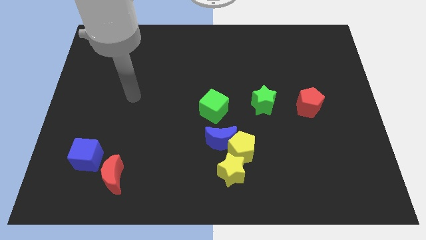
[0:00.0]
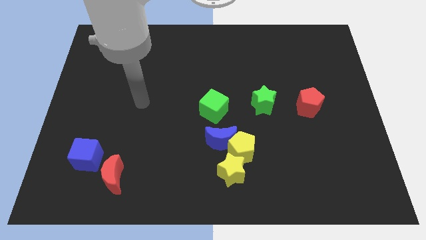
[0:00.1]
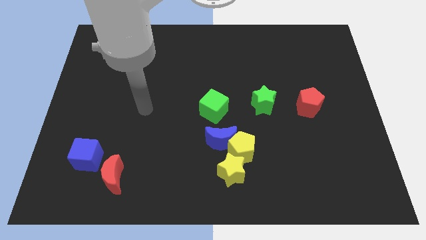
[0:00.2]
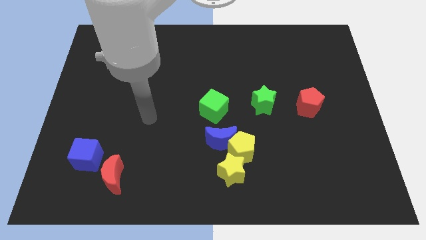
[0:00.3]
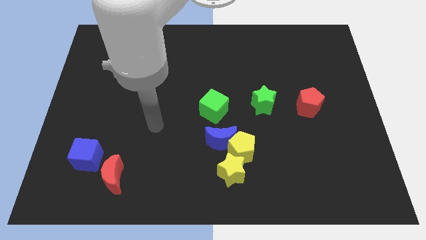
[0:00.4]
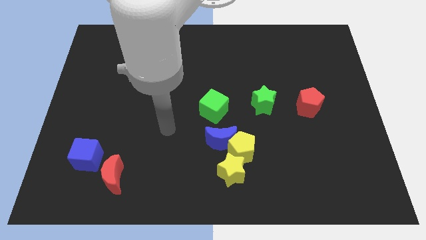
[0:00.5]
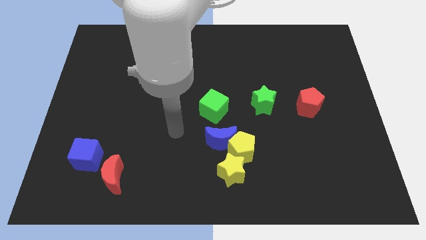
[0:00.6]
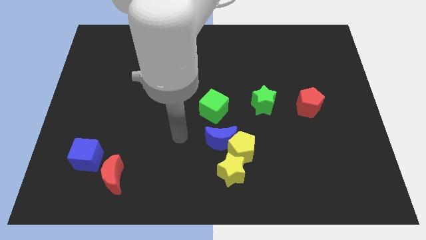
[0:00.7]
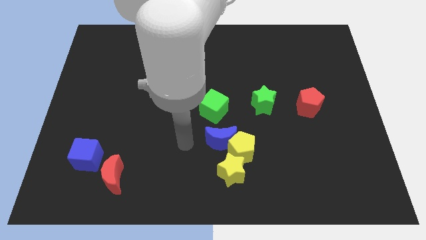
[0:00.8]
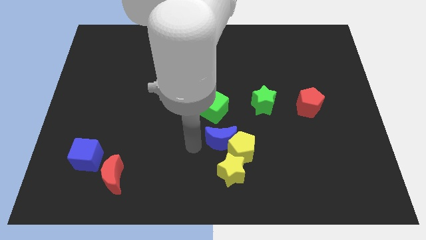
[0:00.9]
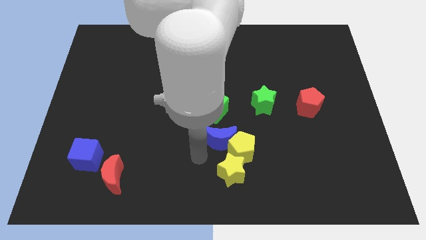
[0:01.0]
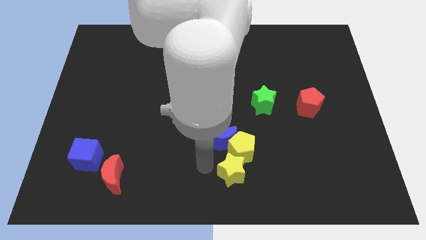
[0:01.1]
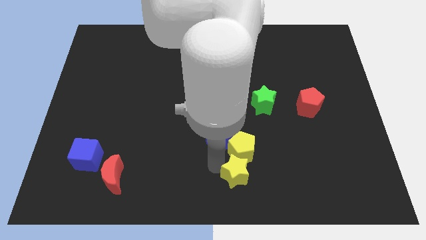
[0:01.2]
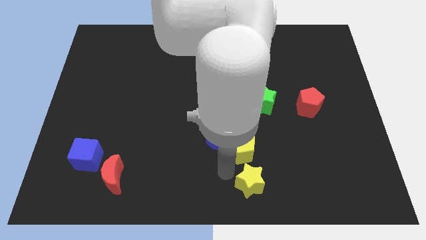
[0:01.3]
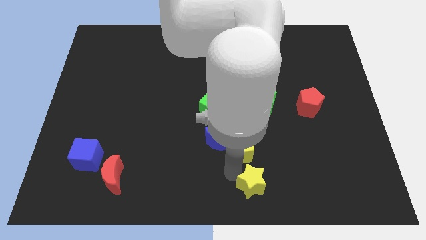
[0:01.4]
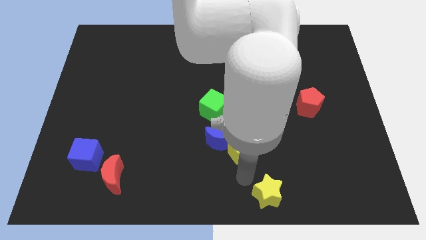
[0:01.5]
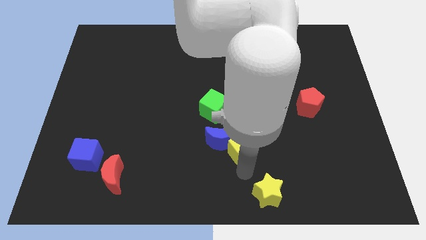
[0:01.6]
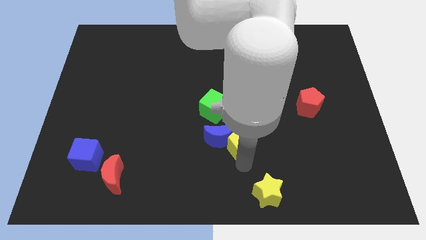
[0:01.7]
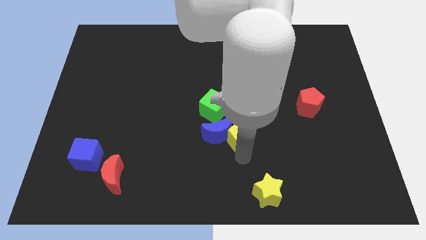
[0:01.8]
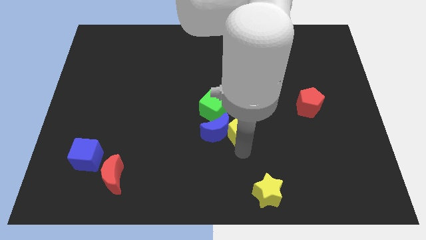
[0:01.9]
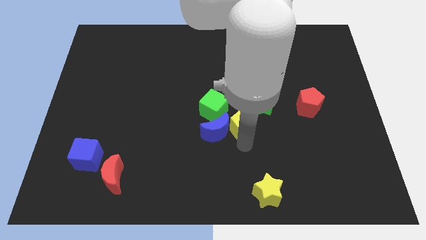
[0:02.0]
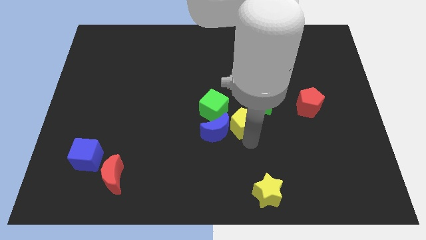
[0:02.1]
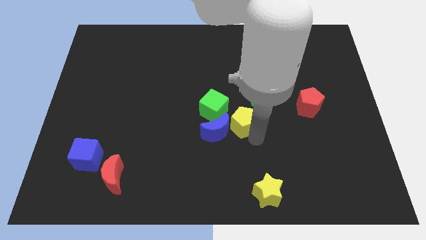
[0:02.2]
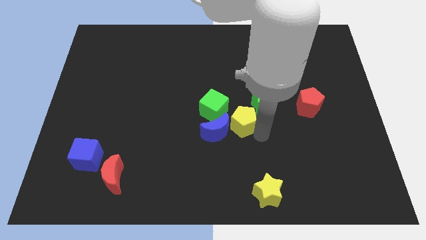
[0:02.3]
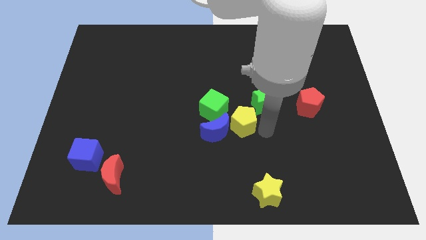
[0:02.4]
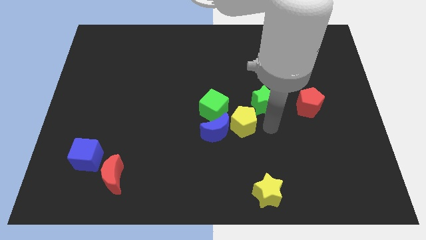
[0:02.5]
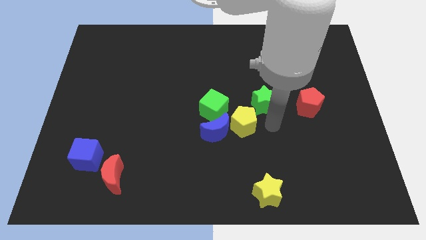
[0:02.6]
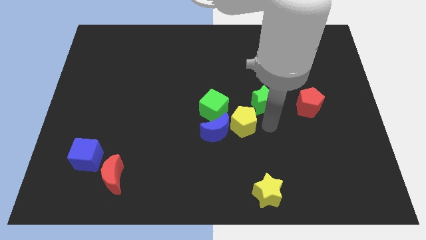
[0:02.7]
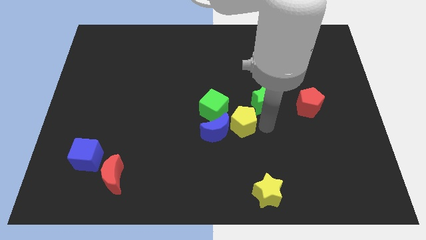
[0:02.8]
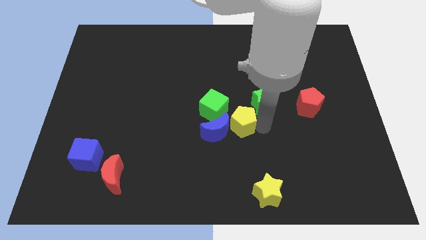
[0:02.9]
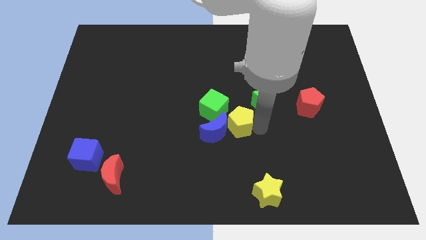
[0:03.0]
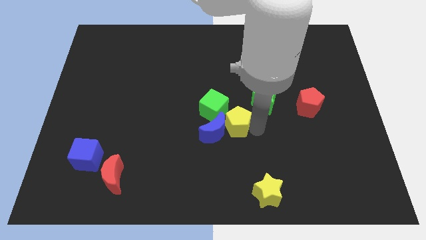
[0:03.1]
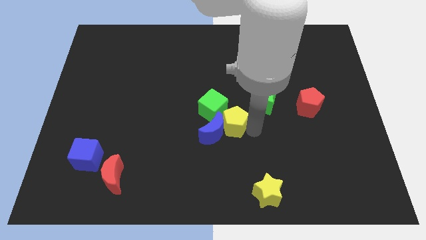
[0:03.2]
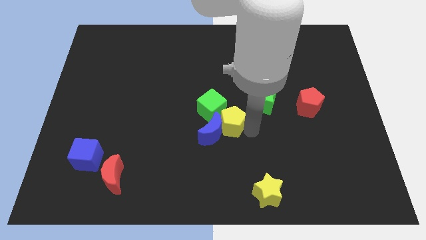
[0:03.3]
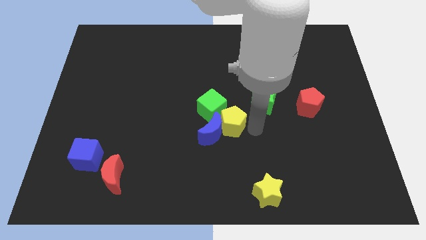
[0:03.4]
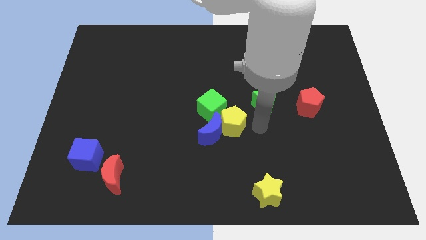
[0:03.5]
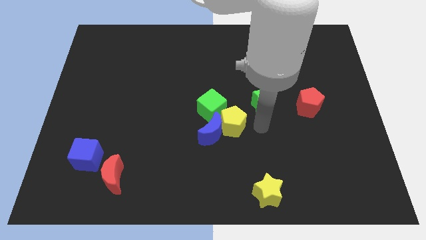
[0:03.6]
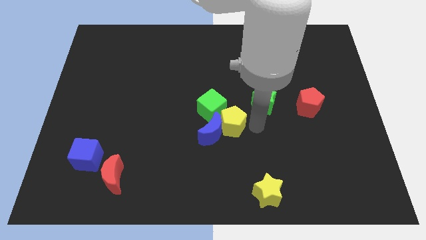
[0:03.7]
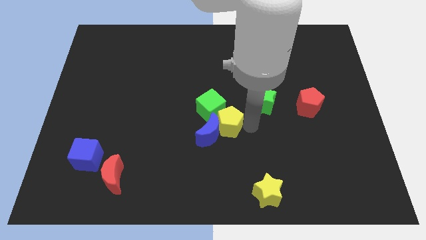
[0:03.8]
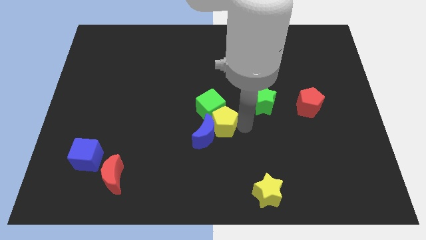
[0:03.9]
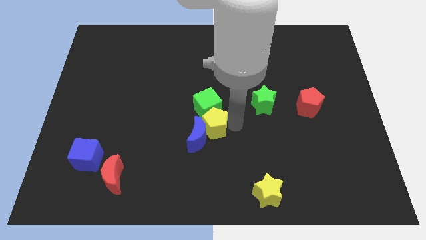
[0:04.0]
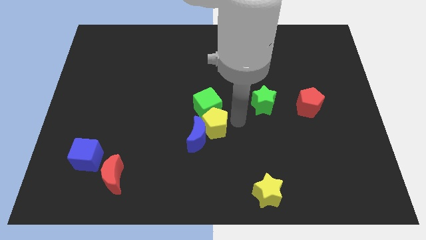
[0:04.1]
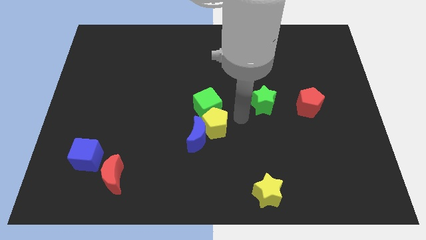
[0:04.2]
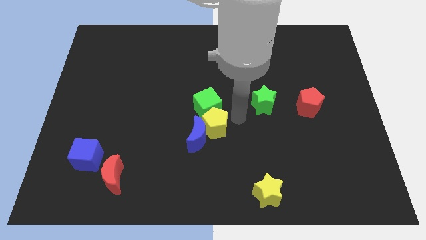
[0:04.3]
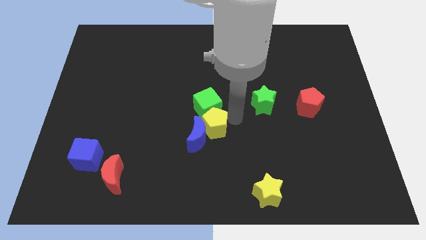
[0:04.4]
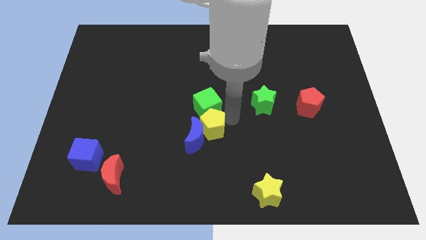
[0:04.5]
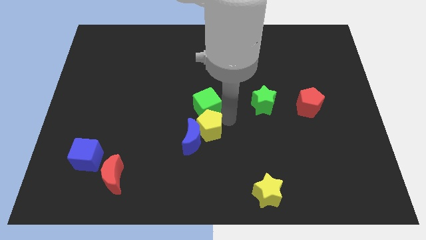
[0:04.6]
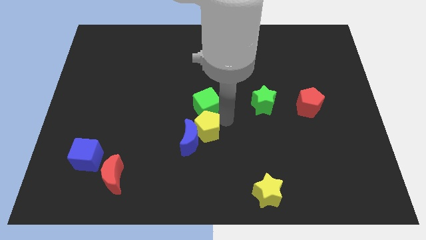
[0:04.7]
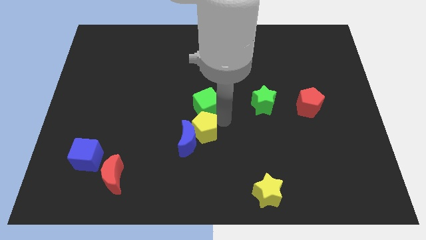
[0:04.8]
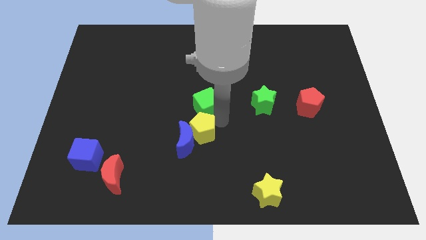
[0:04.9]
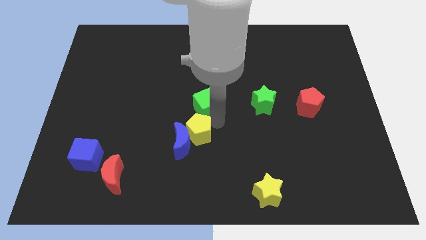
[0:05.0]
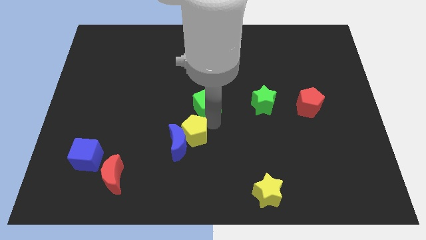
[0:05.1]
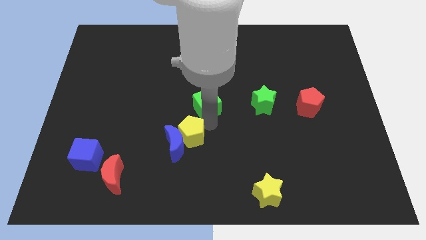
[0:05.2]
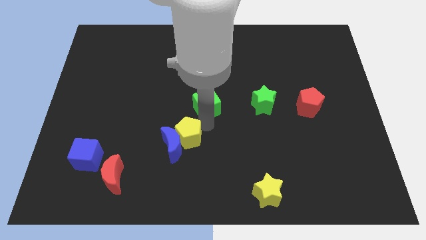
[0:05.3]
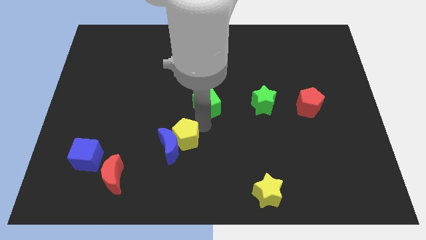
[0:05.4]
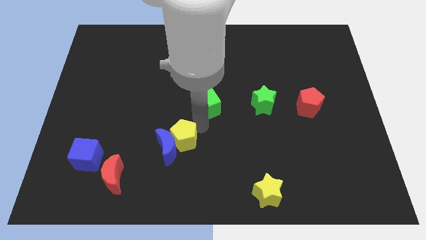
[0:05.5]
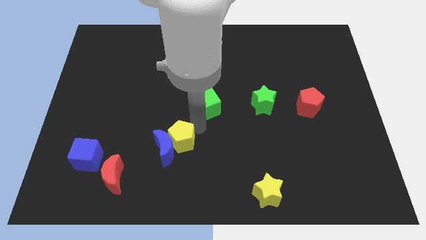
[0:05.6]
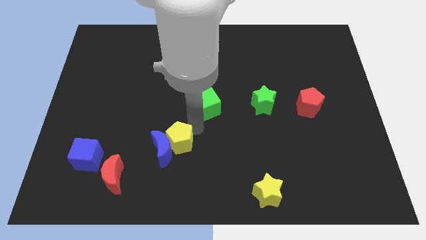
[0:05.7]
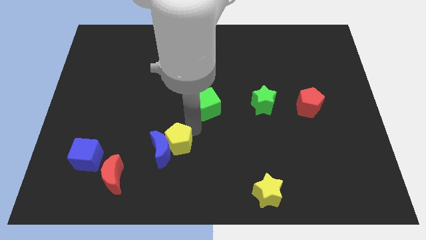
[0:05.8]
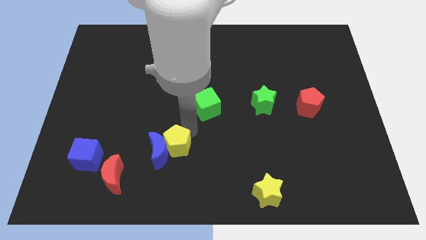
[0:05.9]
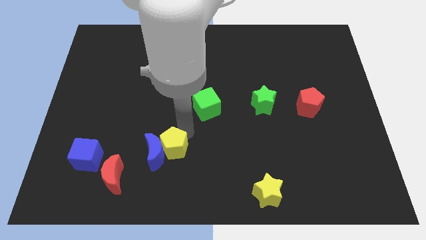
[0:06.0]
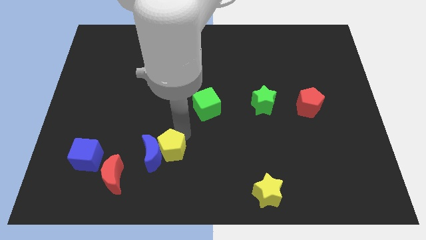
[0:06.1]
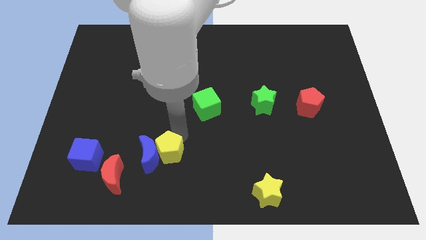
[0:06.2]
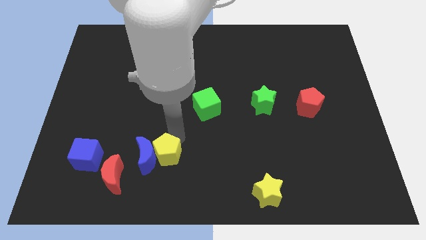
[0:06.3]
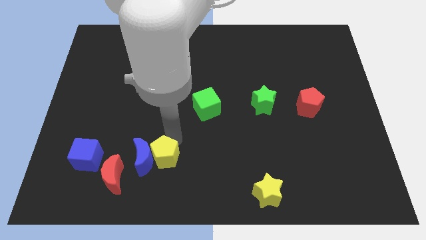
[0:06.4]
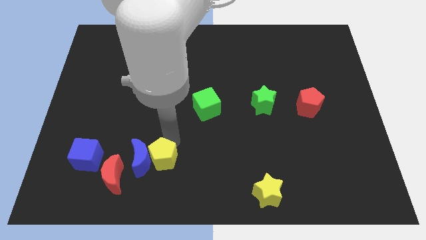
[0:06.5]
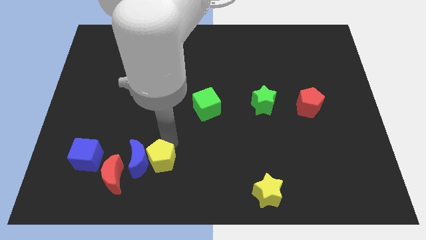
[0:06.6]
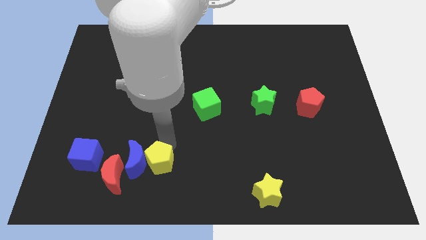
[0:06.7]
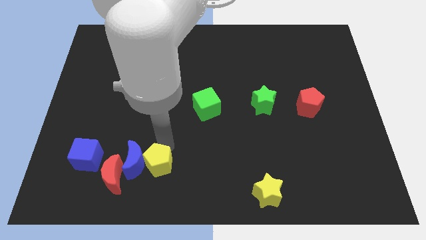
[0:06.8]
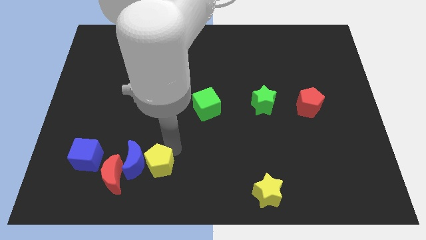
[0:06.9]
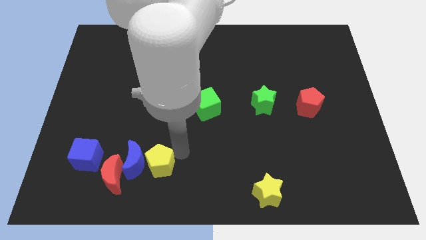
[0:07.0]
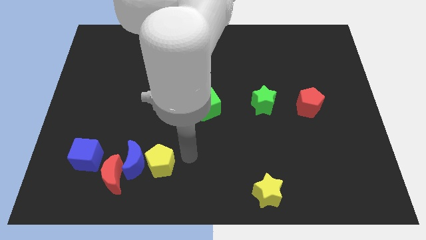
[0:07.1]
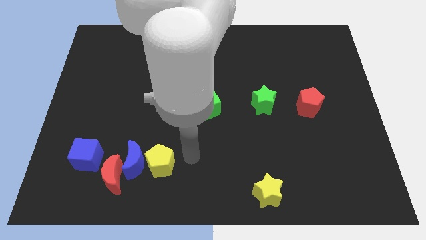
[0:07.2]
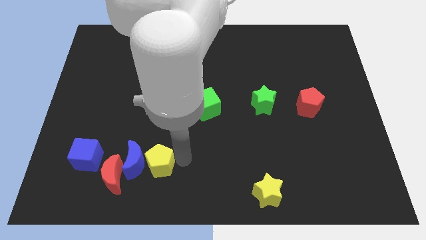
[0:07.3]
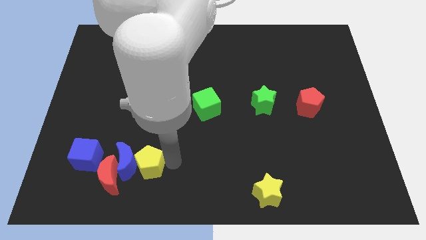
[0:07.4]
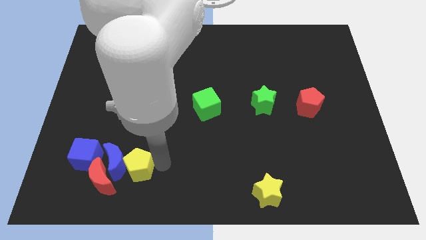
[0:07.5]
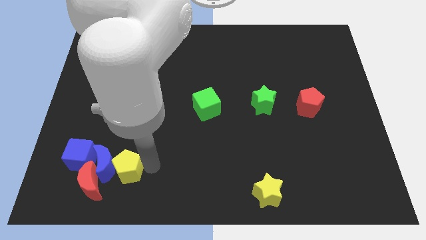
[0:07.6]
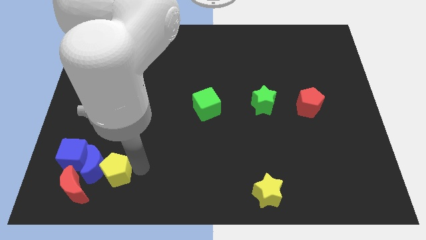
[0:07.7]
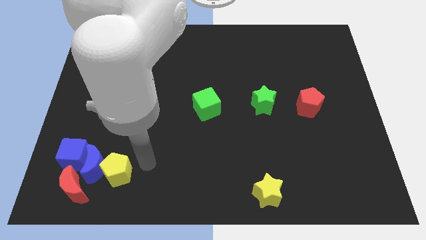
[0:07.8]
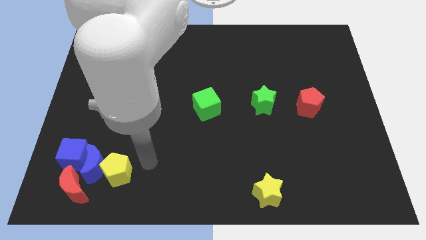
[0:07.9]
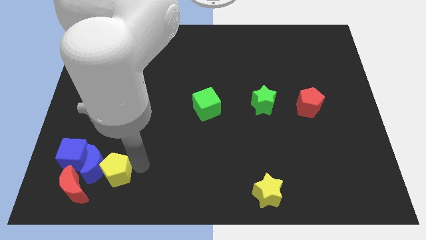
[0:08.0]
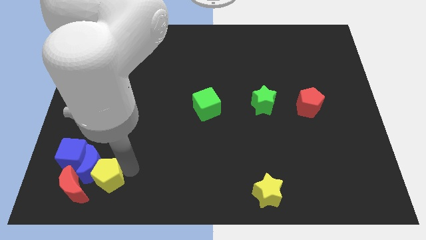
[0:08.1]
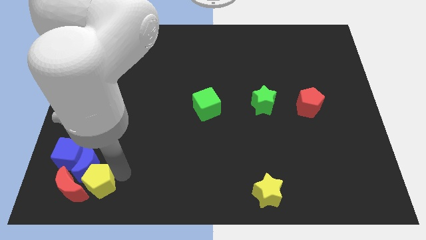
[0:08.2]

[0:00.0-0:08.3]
push the yellow pentagon close to the red moon
